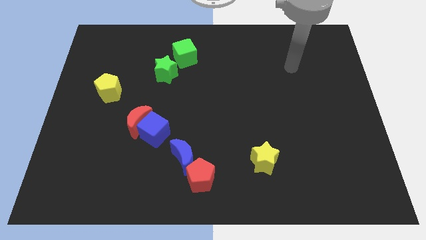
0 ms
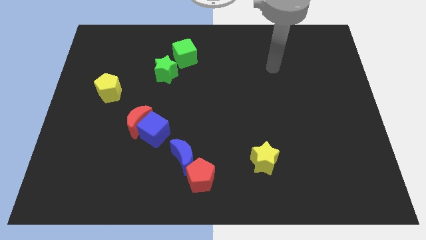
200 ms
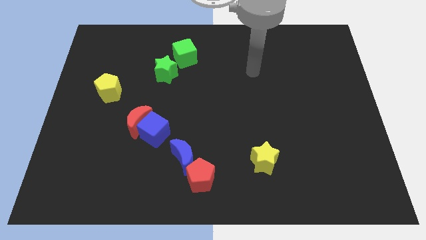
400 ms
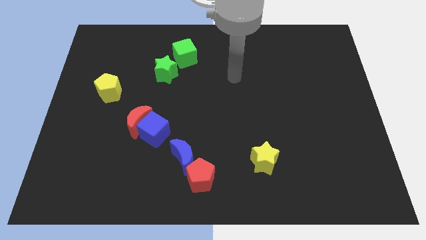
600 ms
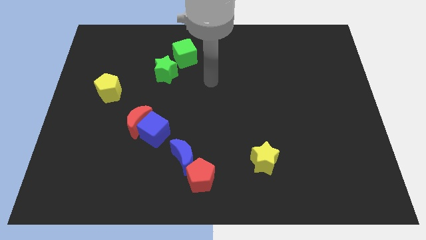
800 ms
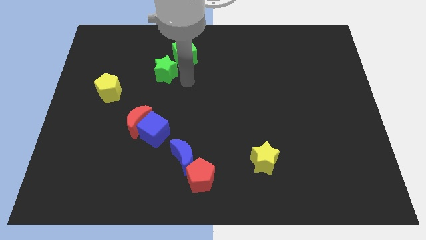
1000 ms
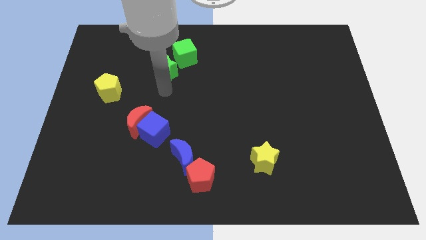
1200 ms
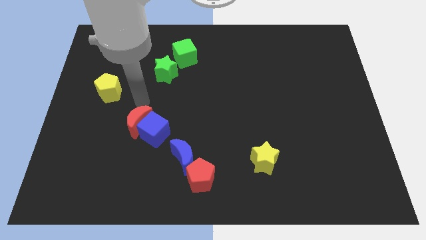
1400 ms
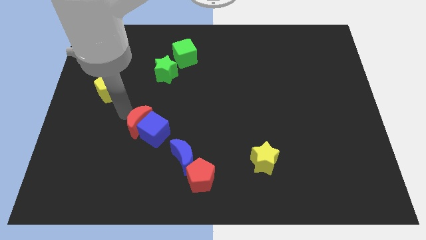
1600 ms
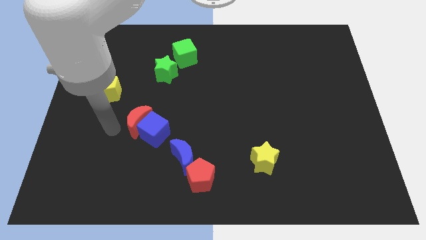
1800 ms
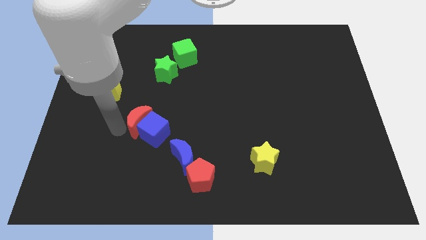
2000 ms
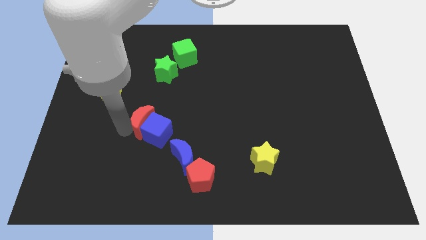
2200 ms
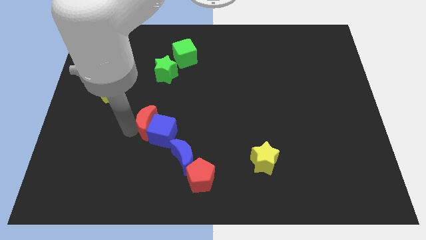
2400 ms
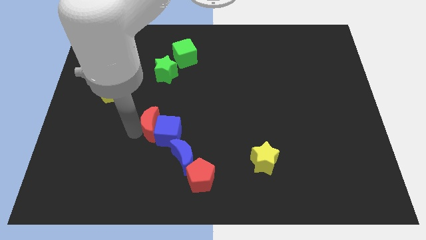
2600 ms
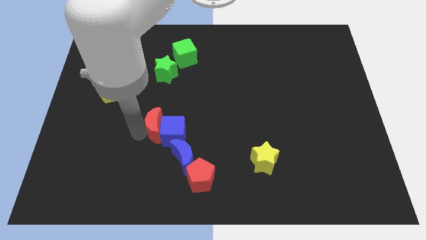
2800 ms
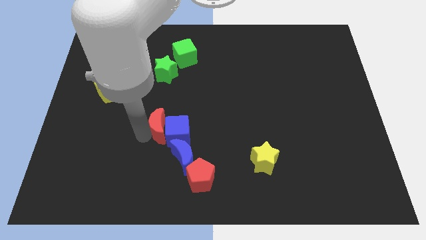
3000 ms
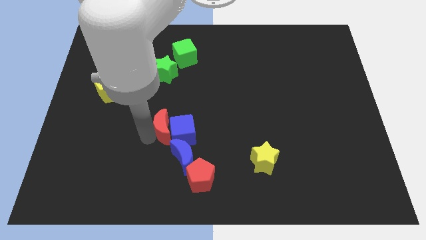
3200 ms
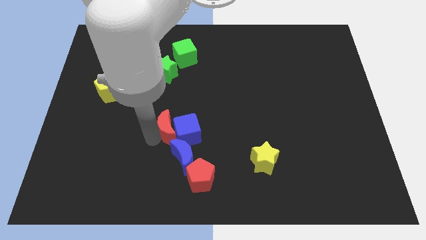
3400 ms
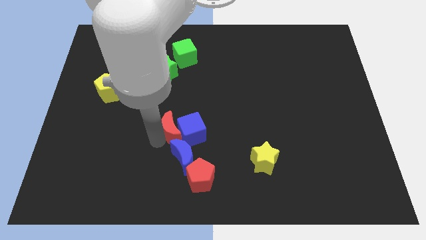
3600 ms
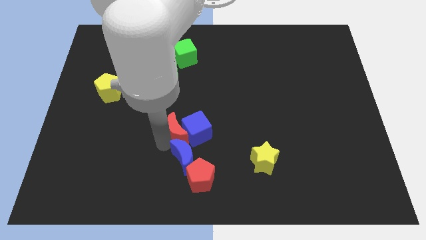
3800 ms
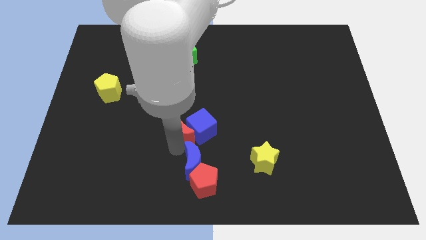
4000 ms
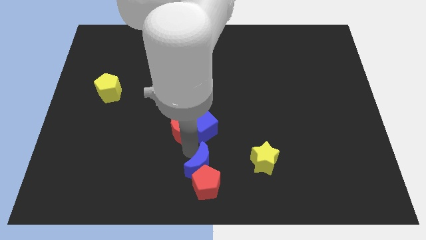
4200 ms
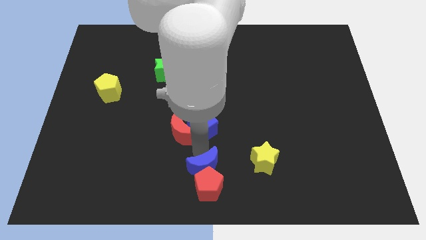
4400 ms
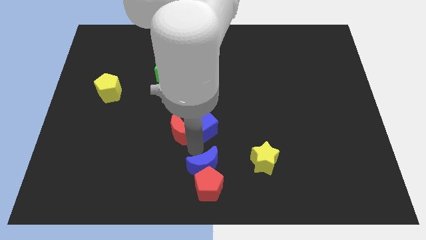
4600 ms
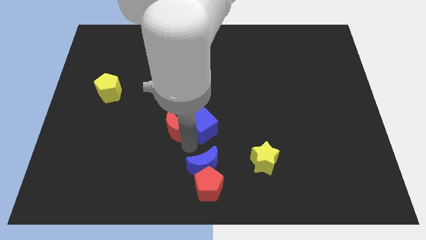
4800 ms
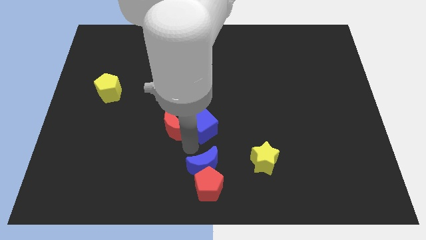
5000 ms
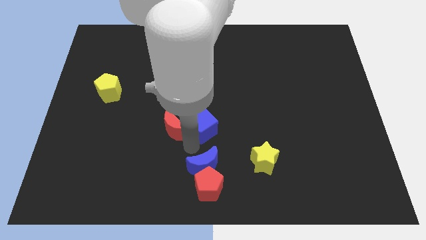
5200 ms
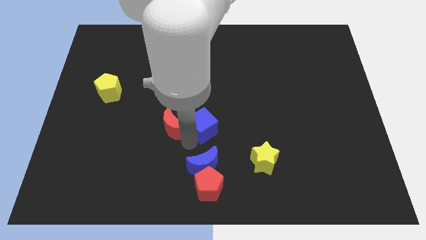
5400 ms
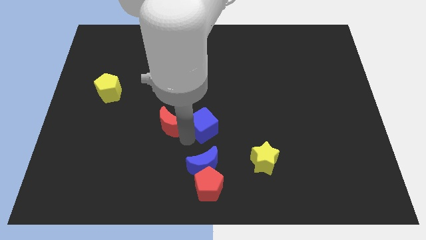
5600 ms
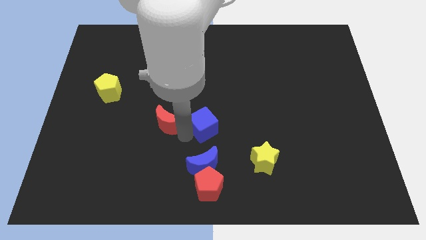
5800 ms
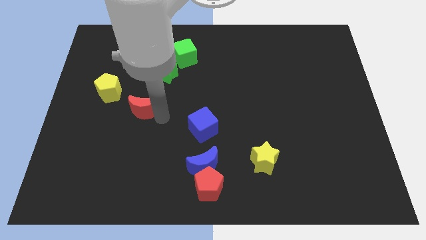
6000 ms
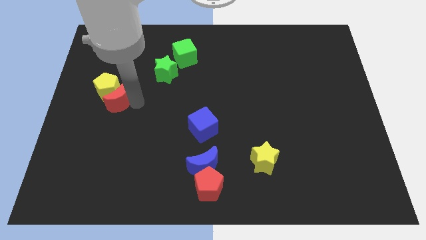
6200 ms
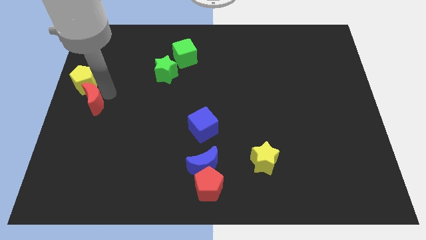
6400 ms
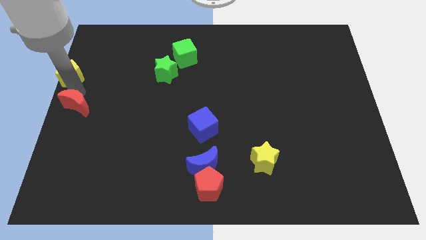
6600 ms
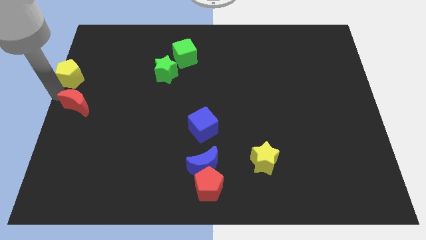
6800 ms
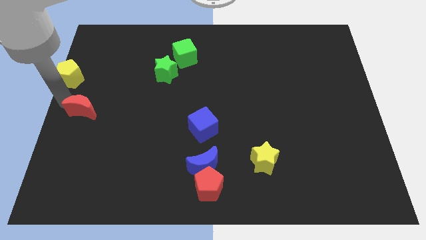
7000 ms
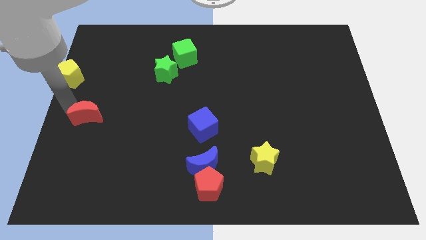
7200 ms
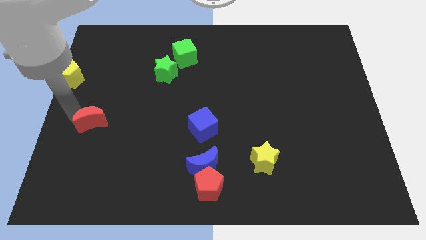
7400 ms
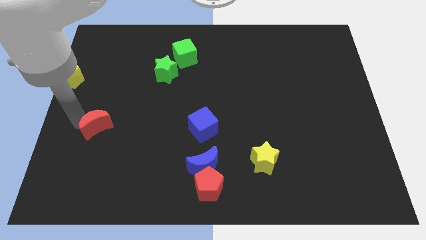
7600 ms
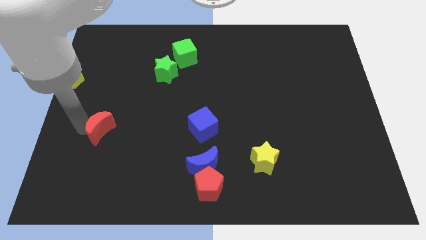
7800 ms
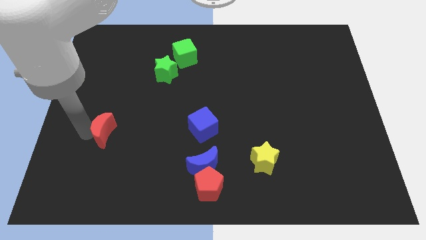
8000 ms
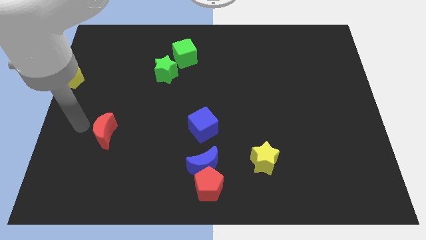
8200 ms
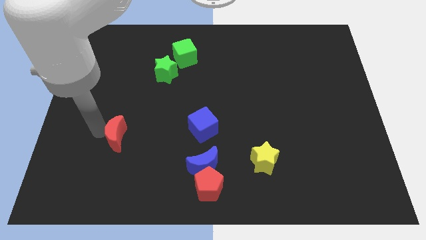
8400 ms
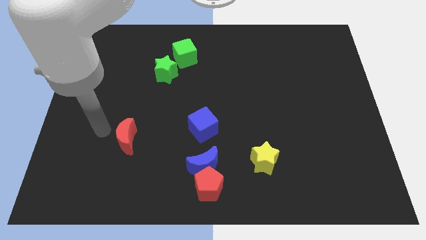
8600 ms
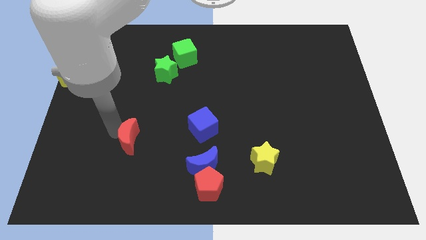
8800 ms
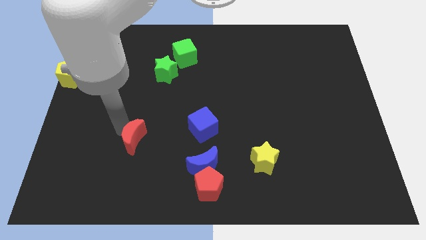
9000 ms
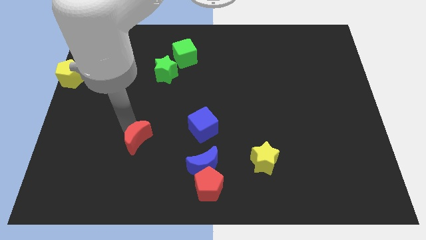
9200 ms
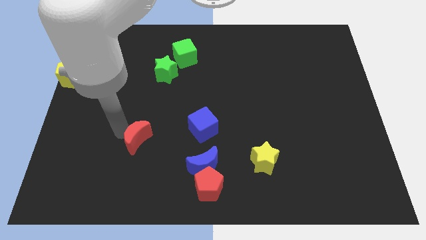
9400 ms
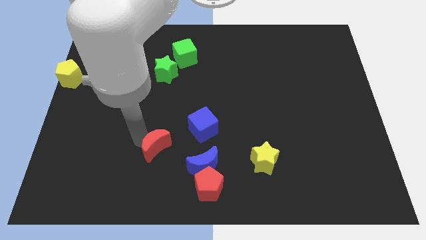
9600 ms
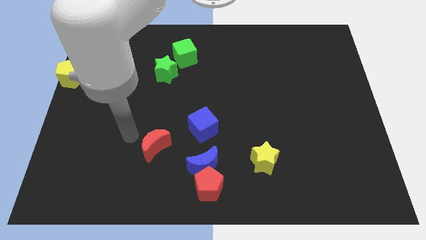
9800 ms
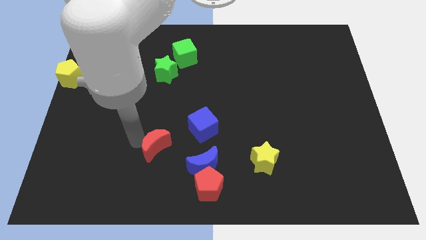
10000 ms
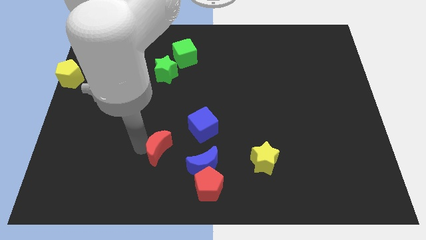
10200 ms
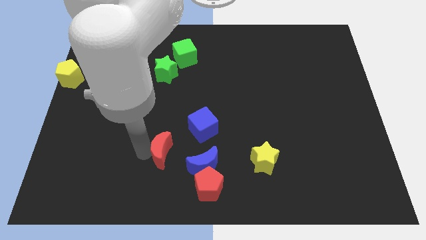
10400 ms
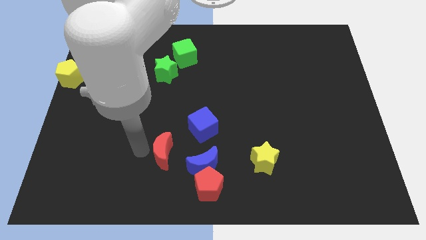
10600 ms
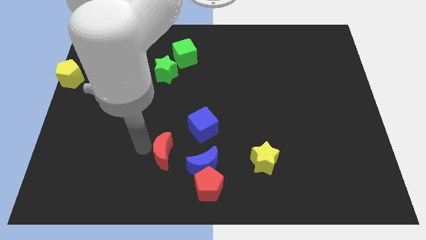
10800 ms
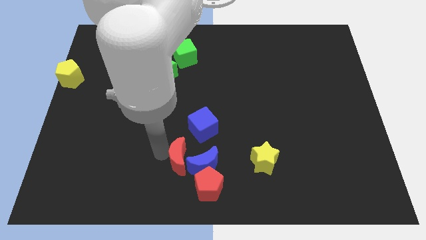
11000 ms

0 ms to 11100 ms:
push the red moon towards the blue moon

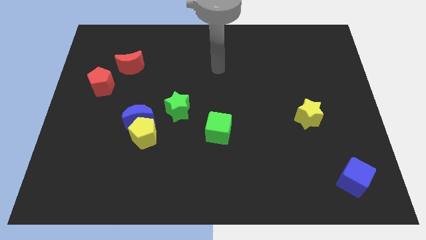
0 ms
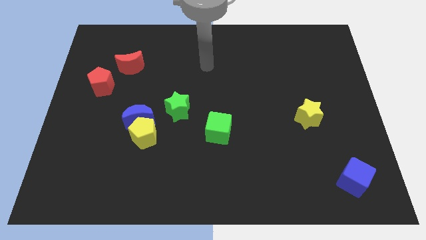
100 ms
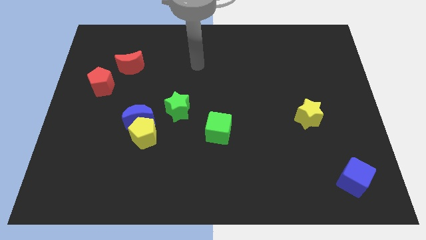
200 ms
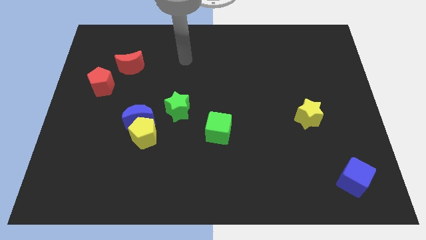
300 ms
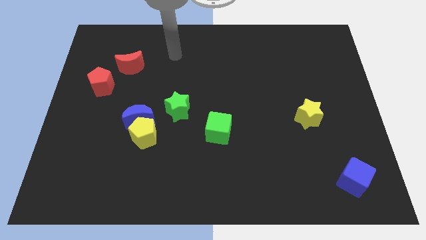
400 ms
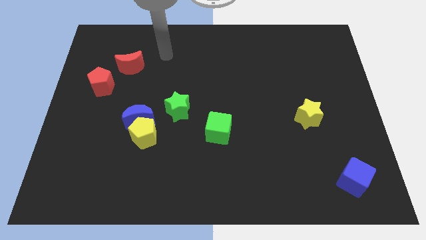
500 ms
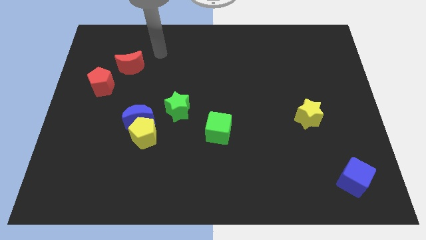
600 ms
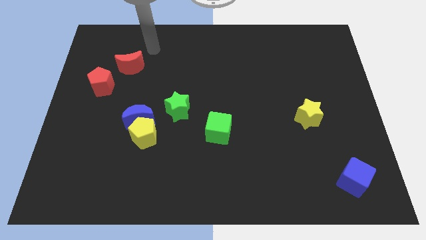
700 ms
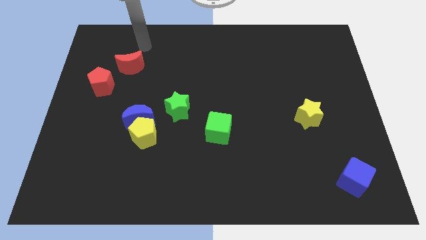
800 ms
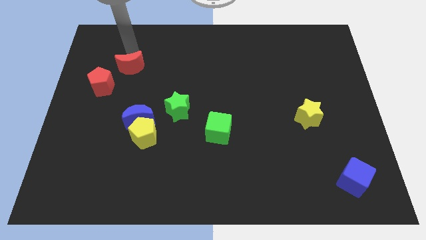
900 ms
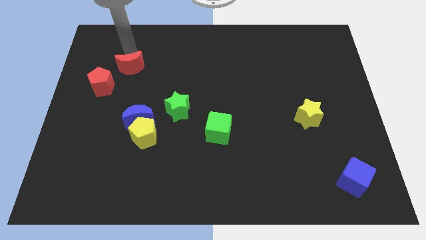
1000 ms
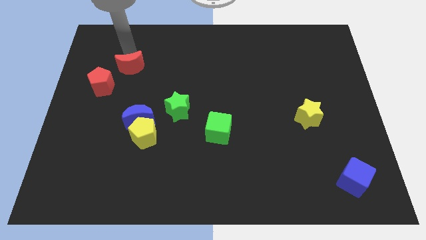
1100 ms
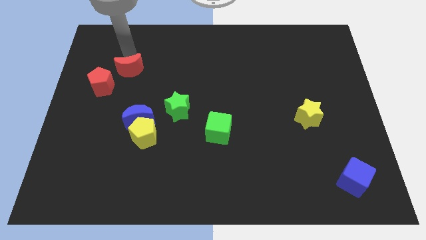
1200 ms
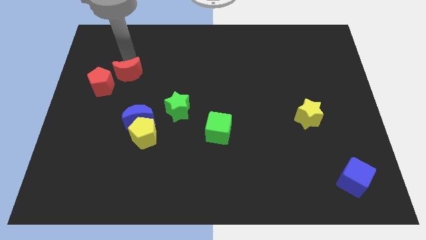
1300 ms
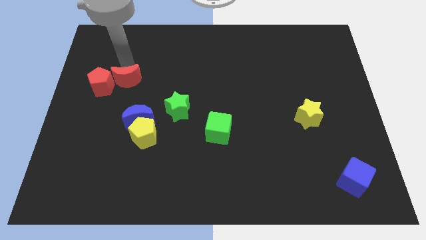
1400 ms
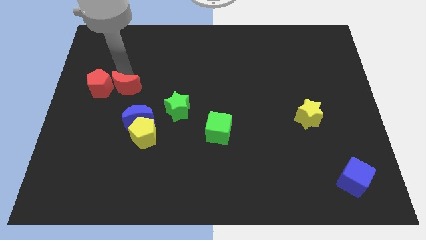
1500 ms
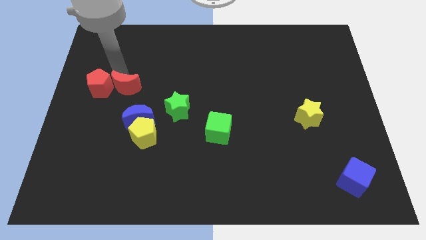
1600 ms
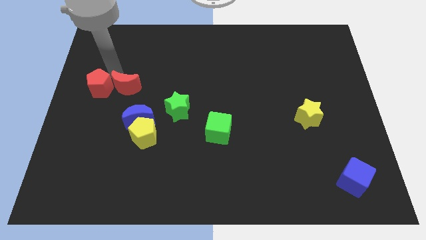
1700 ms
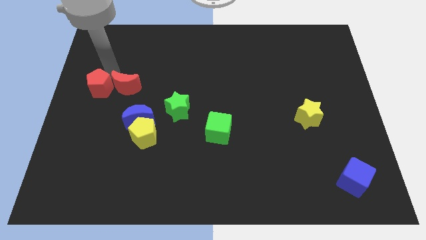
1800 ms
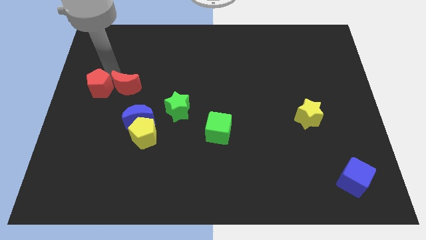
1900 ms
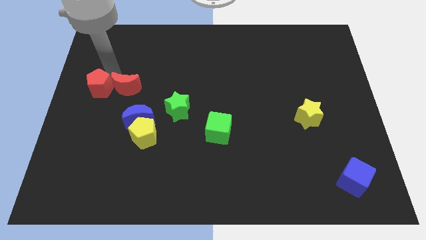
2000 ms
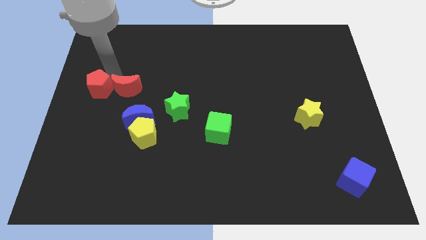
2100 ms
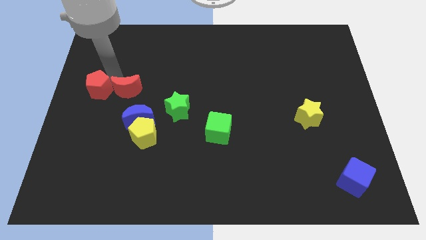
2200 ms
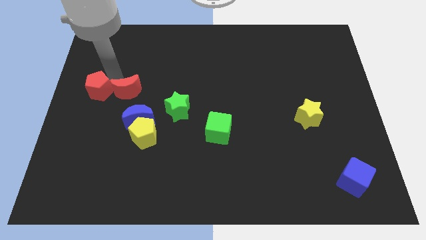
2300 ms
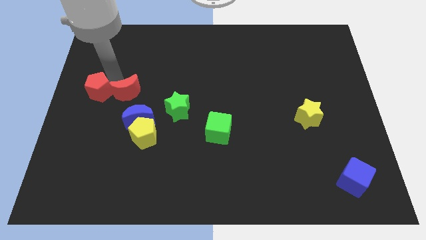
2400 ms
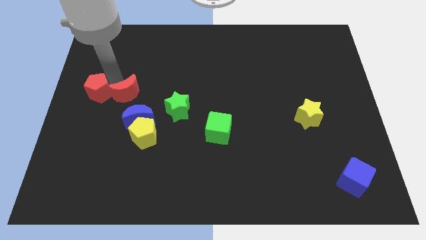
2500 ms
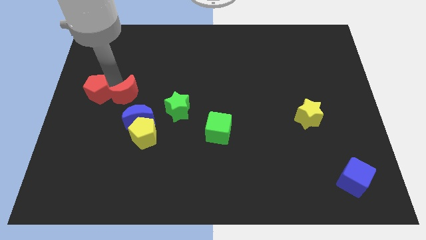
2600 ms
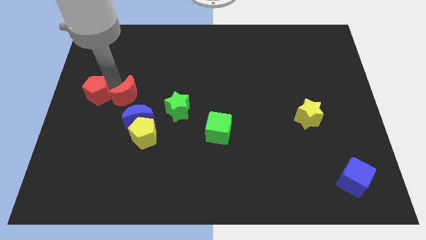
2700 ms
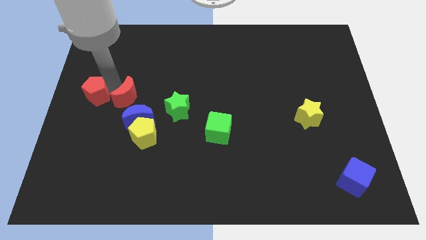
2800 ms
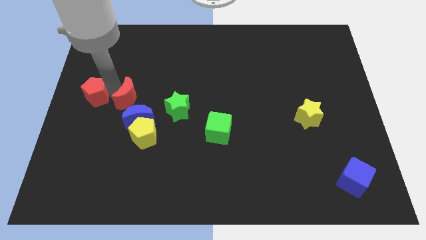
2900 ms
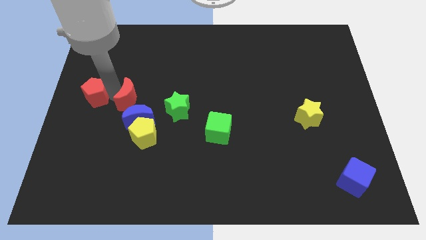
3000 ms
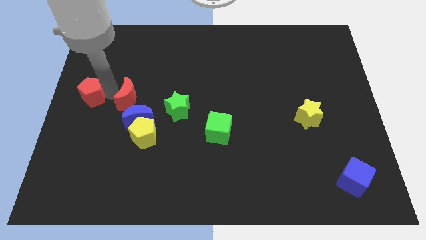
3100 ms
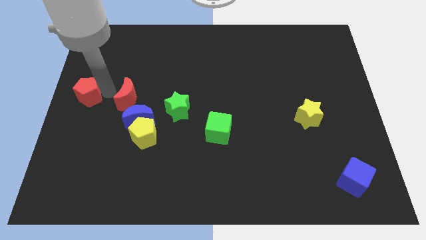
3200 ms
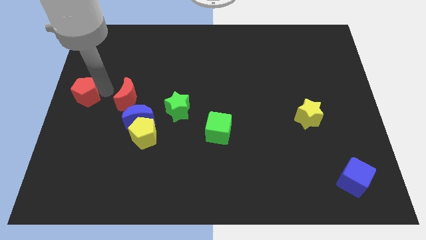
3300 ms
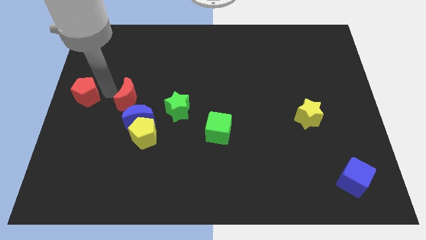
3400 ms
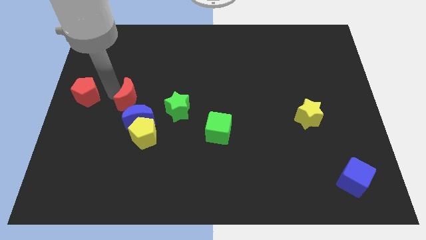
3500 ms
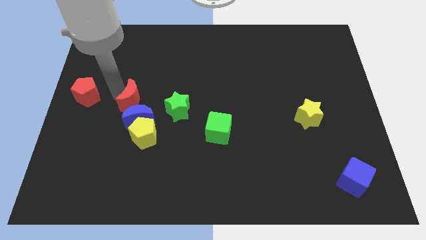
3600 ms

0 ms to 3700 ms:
slide the red moon next to the blue moon
